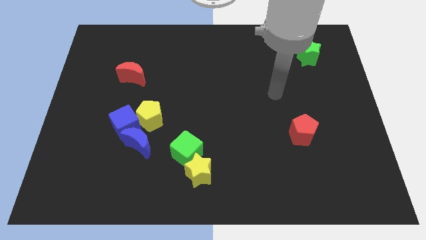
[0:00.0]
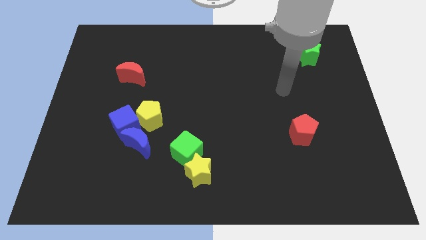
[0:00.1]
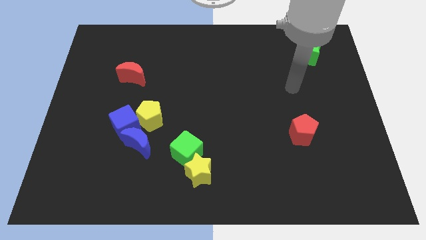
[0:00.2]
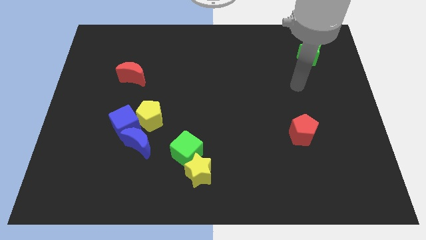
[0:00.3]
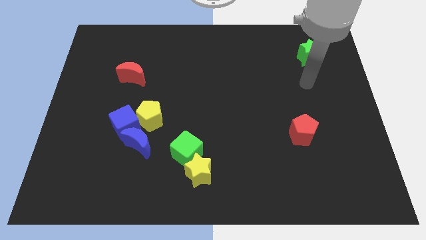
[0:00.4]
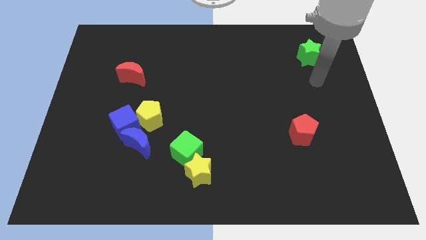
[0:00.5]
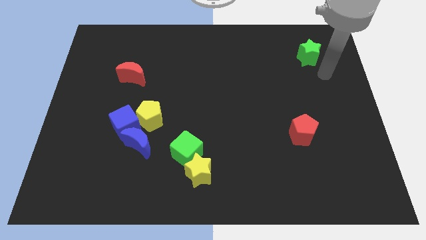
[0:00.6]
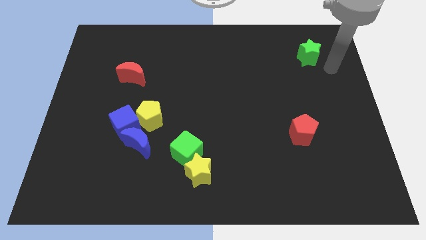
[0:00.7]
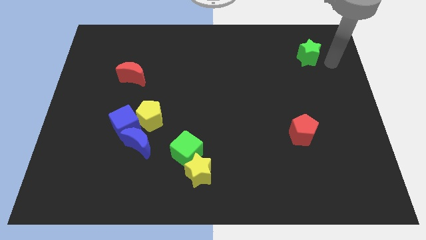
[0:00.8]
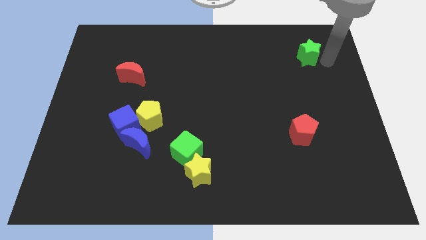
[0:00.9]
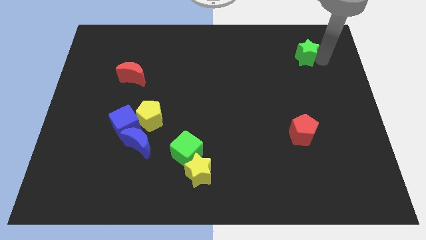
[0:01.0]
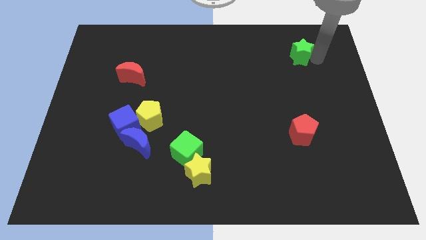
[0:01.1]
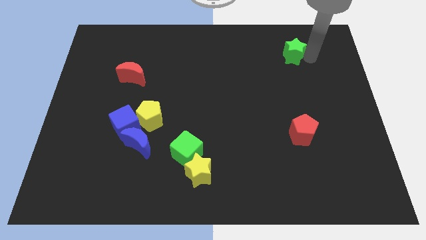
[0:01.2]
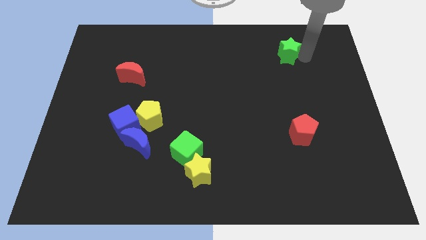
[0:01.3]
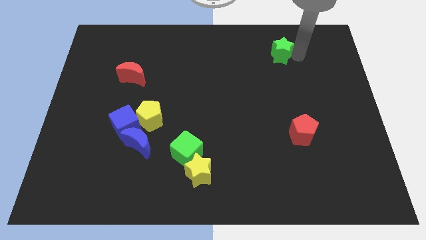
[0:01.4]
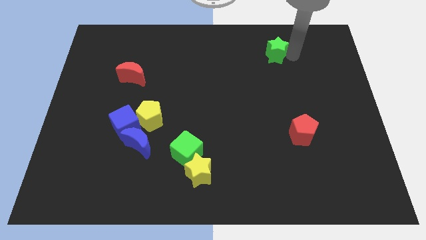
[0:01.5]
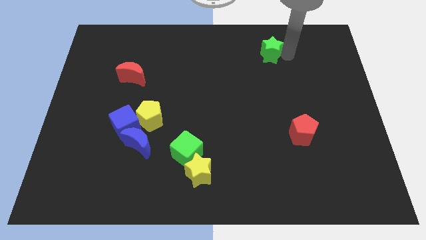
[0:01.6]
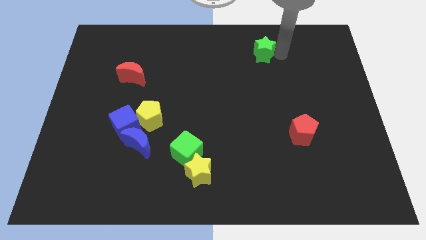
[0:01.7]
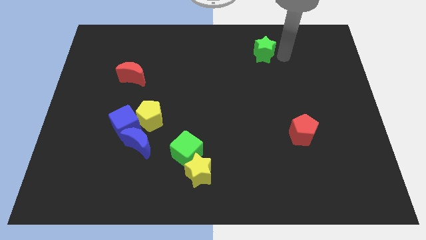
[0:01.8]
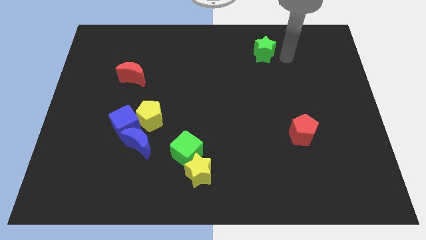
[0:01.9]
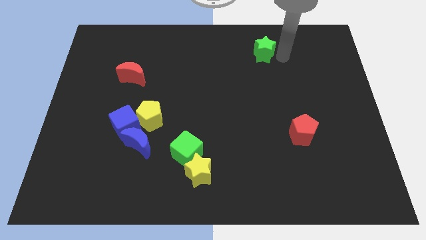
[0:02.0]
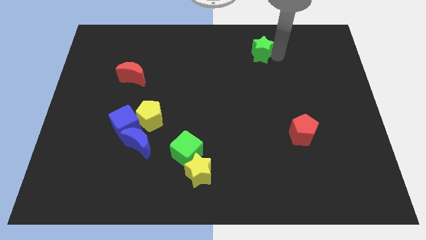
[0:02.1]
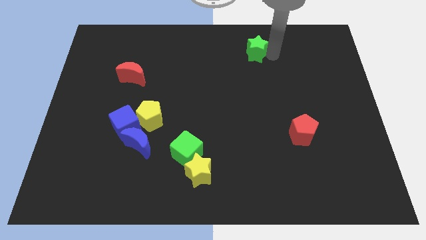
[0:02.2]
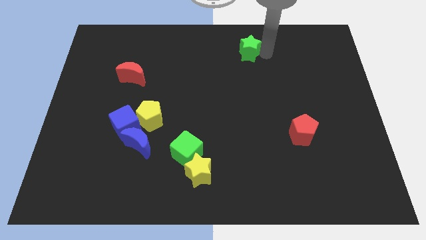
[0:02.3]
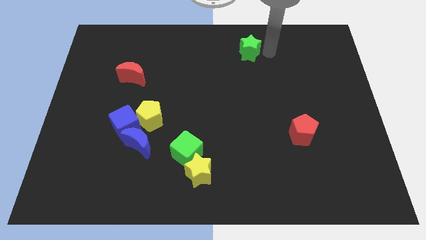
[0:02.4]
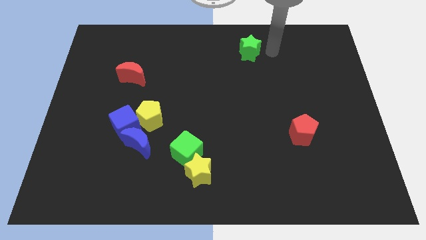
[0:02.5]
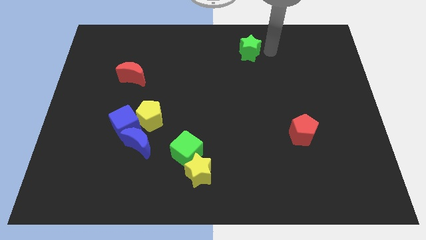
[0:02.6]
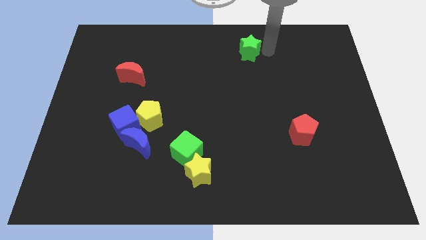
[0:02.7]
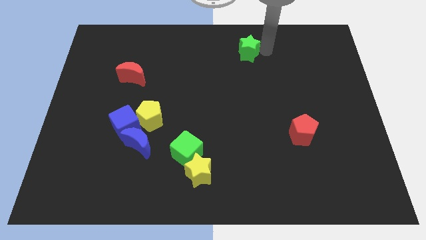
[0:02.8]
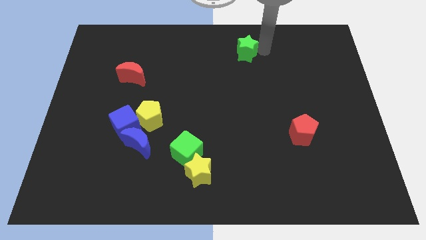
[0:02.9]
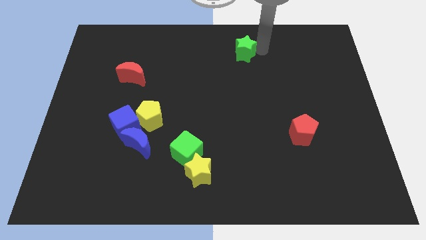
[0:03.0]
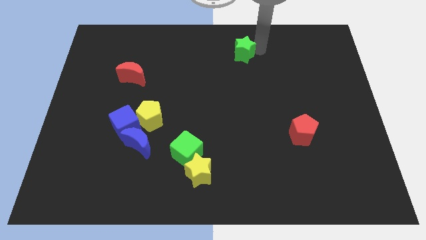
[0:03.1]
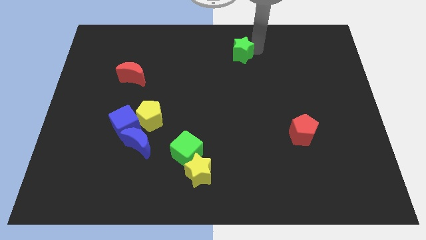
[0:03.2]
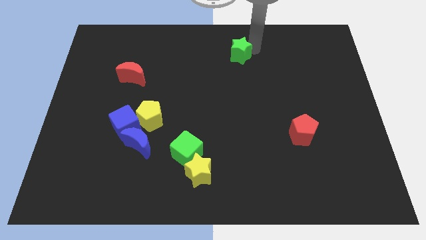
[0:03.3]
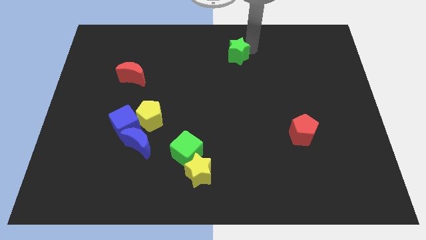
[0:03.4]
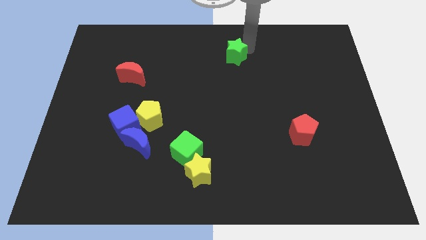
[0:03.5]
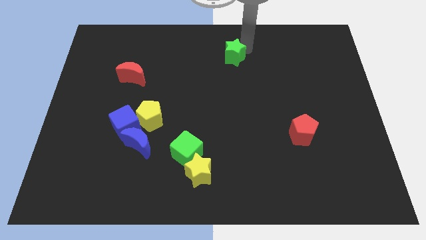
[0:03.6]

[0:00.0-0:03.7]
move the green star left

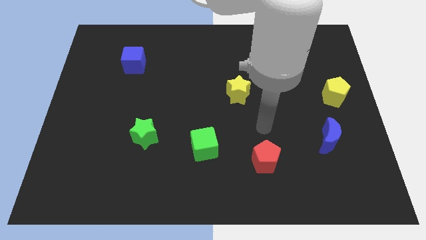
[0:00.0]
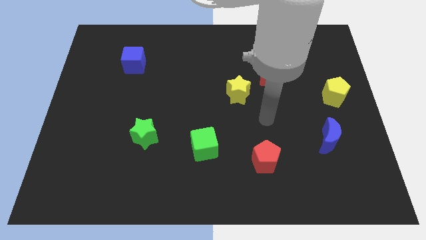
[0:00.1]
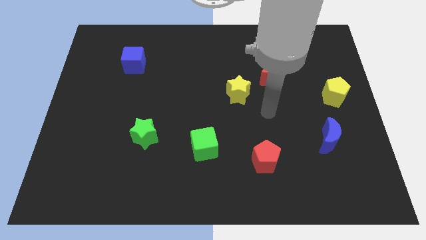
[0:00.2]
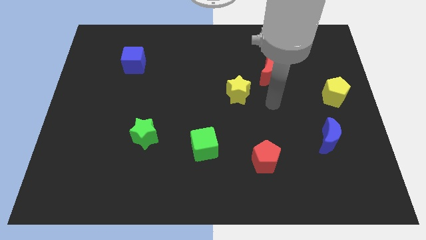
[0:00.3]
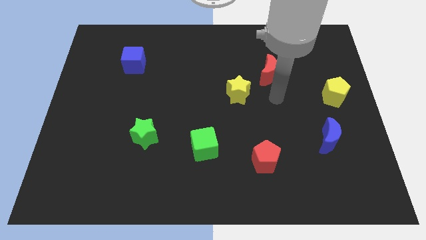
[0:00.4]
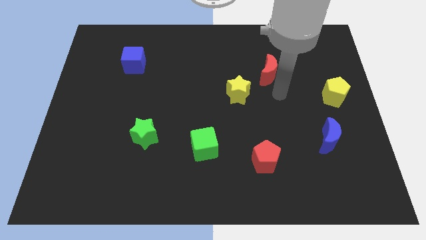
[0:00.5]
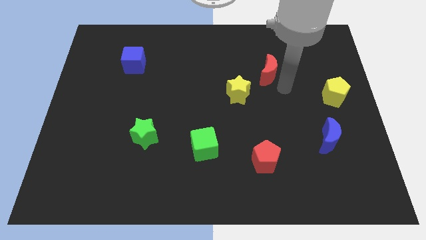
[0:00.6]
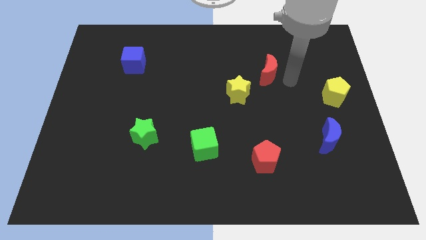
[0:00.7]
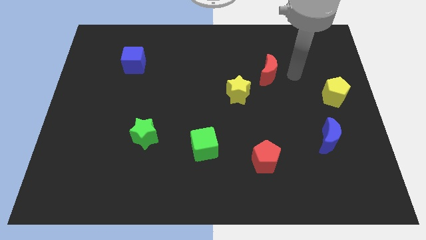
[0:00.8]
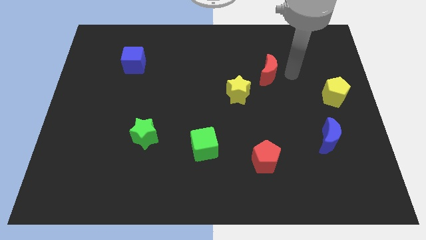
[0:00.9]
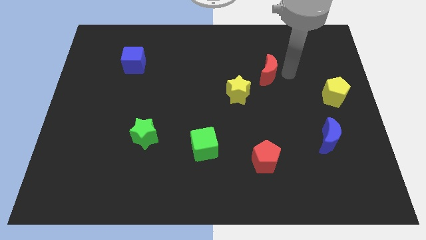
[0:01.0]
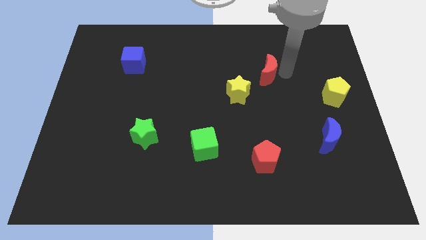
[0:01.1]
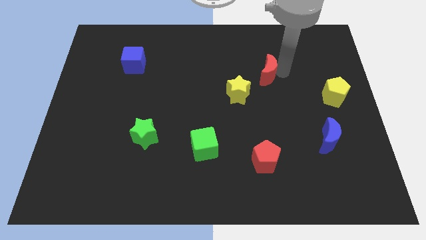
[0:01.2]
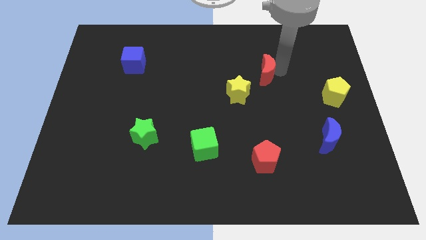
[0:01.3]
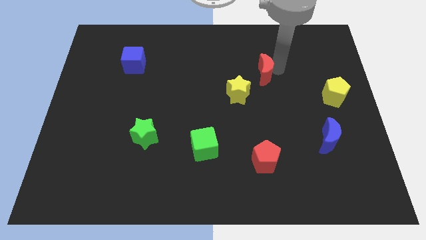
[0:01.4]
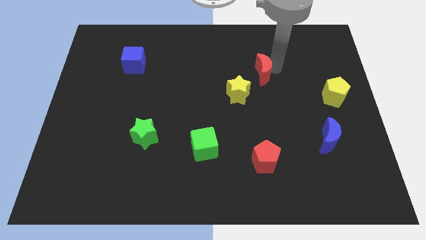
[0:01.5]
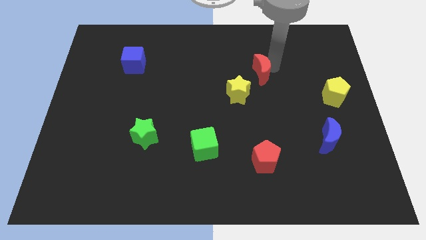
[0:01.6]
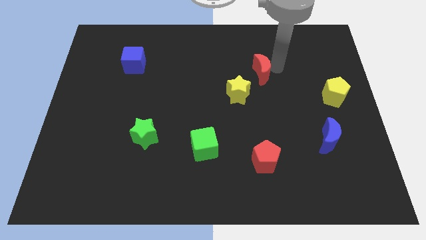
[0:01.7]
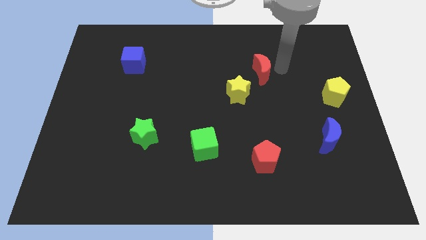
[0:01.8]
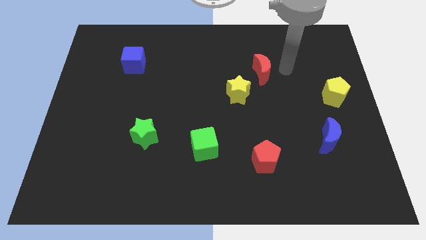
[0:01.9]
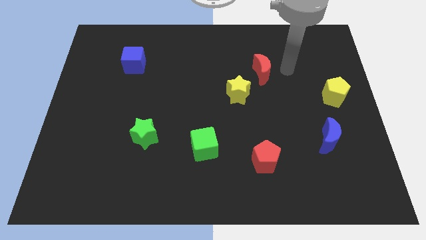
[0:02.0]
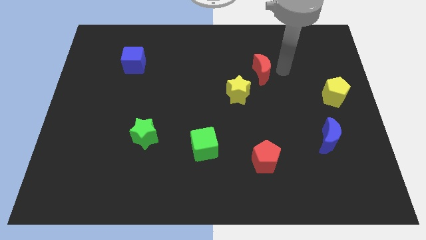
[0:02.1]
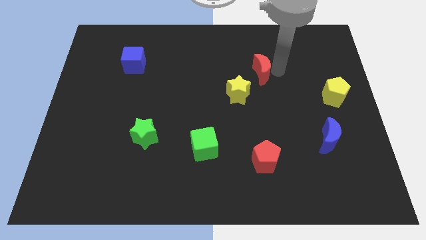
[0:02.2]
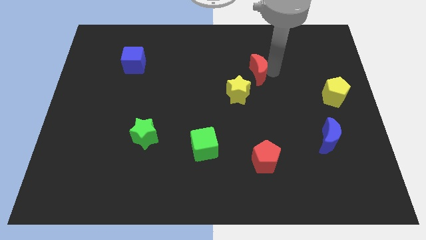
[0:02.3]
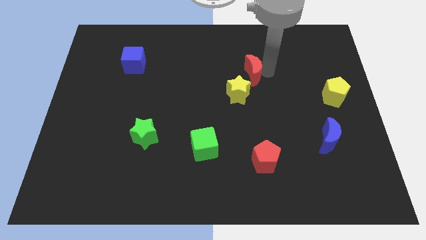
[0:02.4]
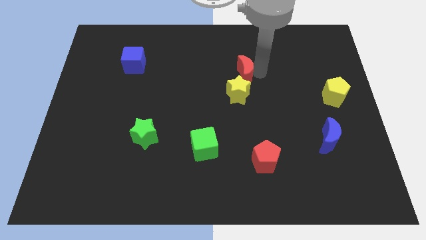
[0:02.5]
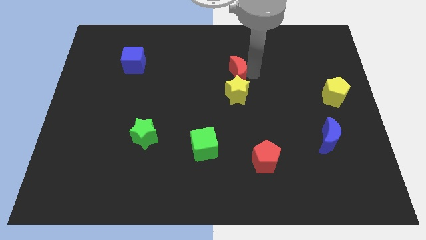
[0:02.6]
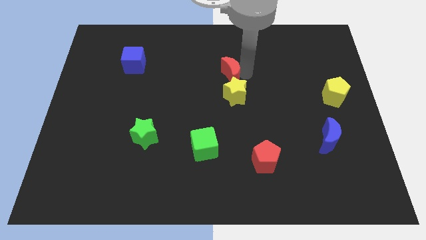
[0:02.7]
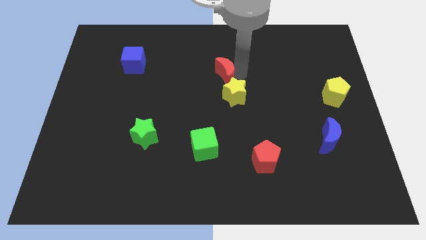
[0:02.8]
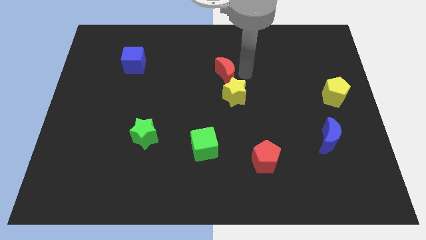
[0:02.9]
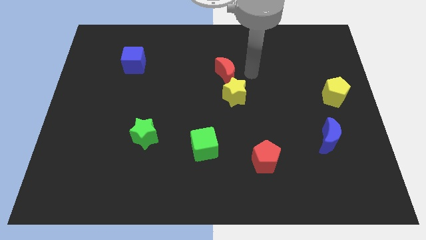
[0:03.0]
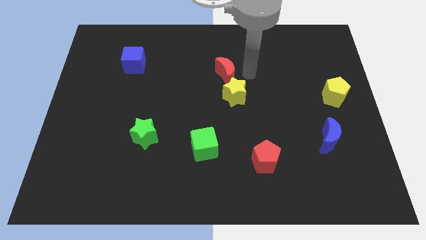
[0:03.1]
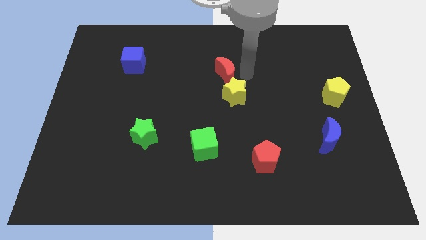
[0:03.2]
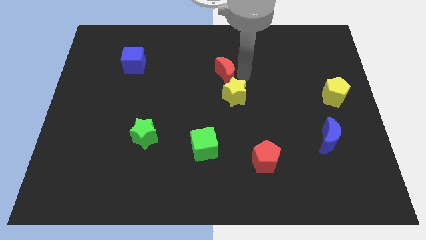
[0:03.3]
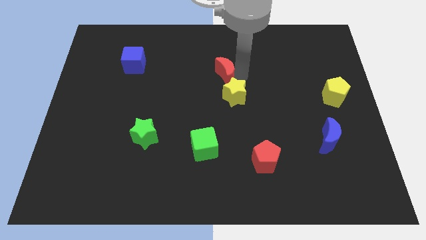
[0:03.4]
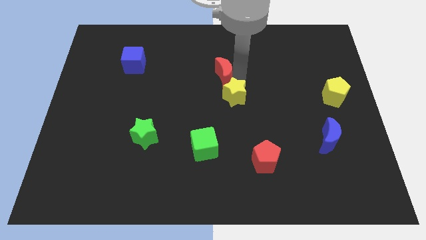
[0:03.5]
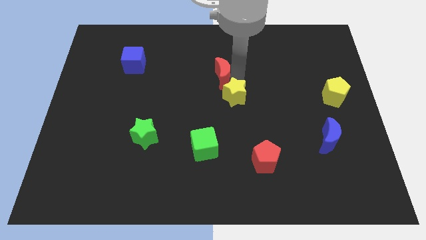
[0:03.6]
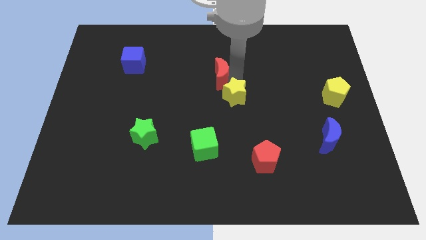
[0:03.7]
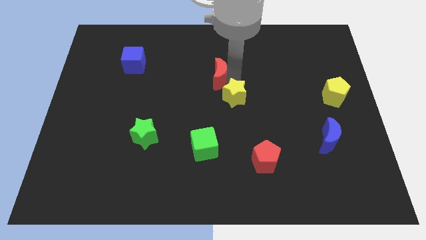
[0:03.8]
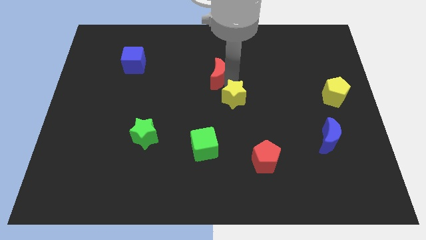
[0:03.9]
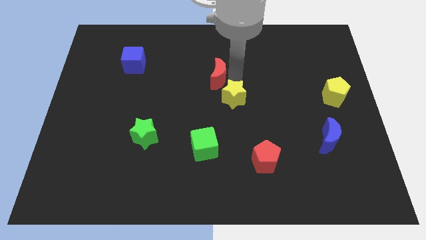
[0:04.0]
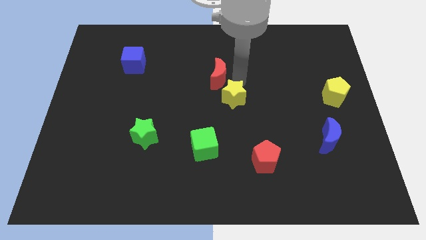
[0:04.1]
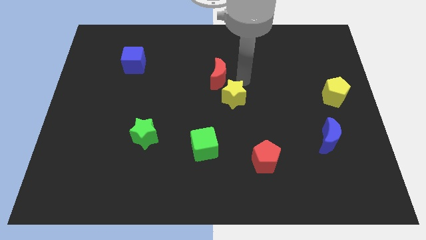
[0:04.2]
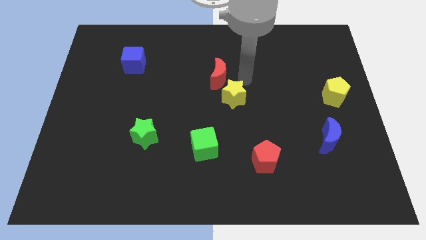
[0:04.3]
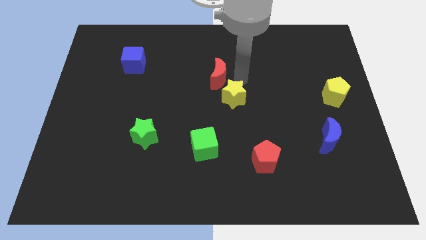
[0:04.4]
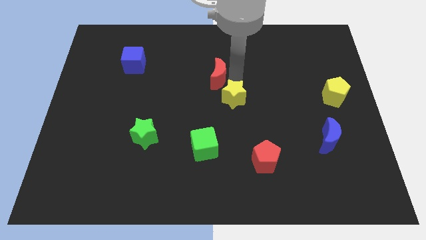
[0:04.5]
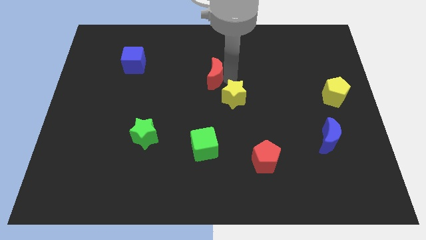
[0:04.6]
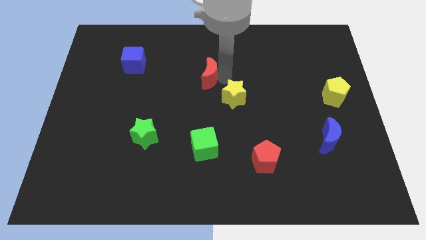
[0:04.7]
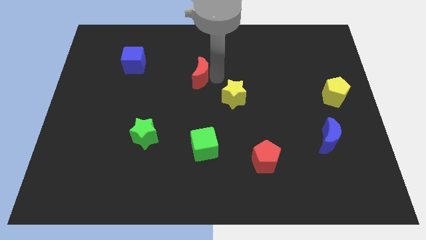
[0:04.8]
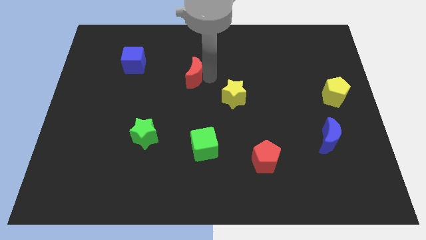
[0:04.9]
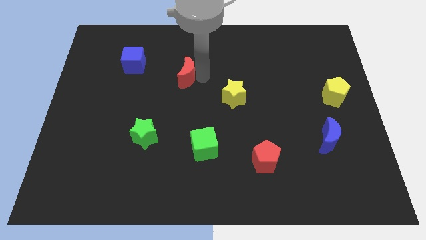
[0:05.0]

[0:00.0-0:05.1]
push the red moon left
